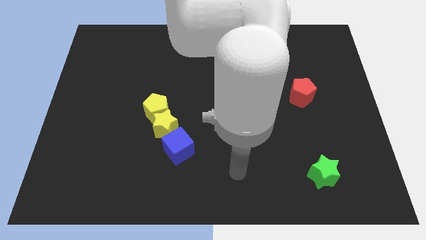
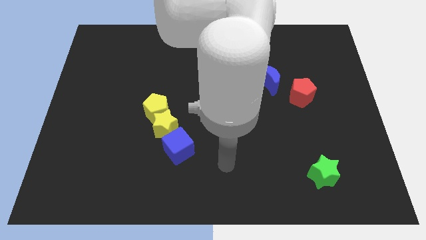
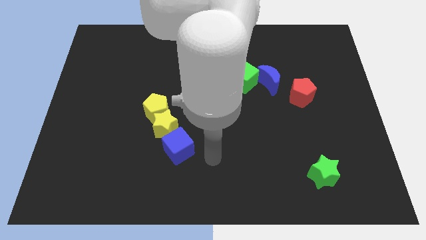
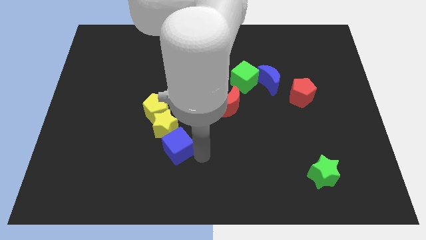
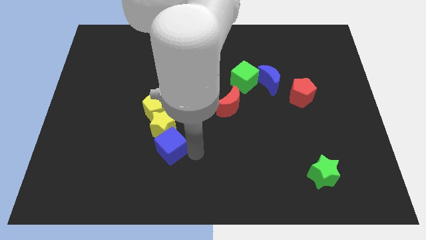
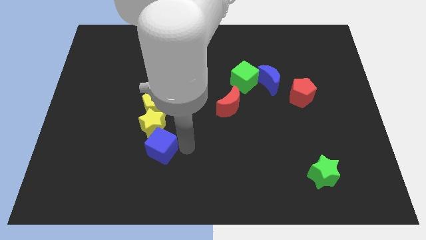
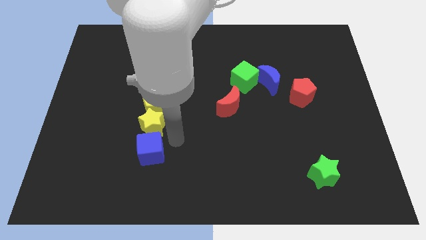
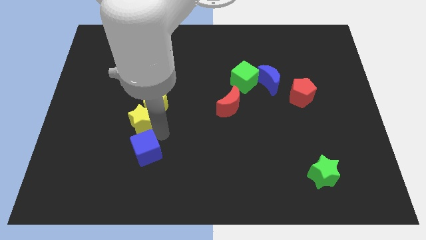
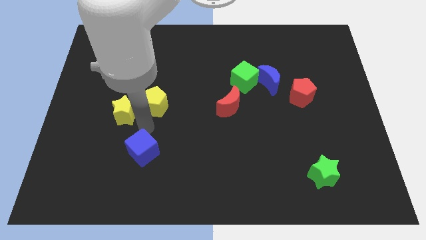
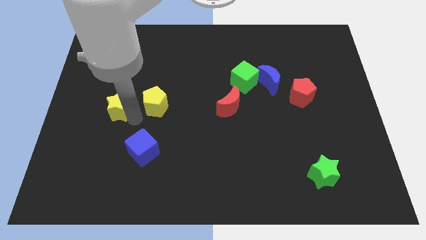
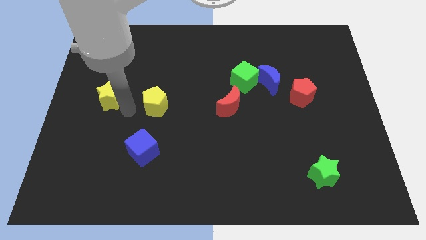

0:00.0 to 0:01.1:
pull the yellow pentagon apart from the yellow star

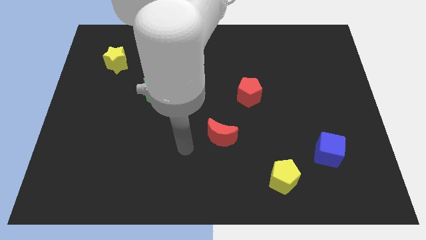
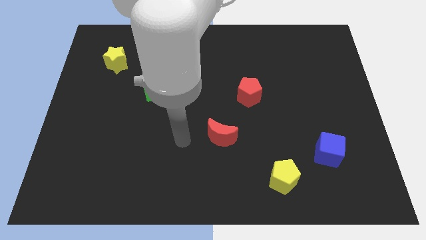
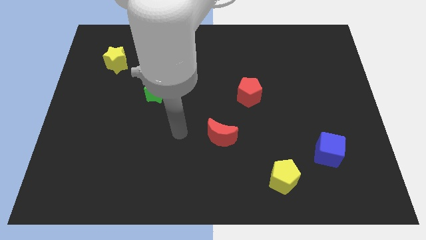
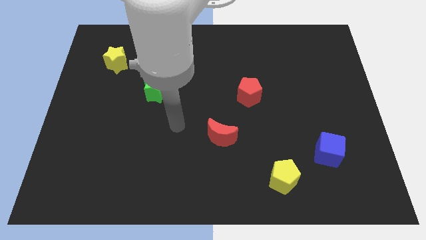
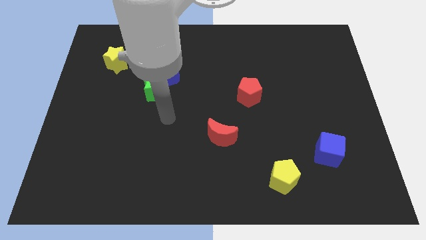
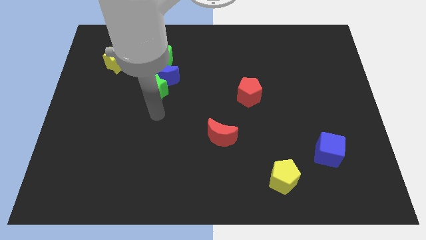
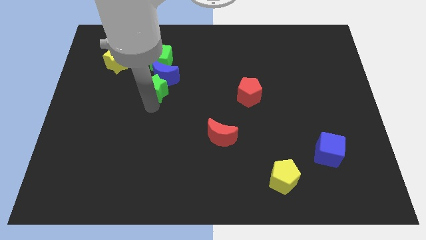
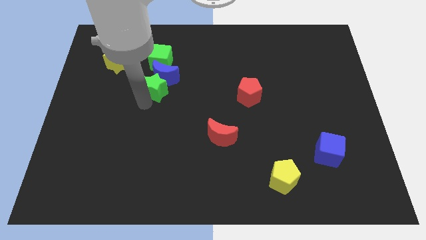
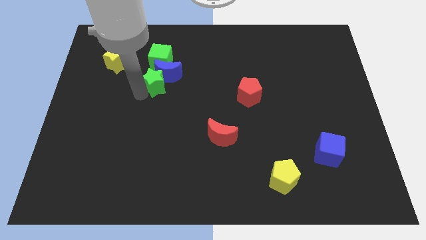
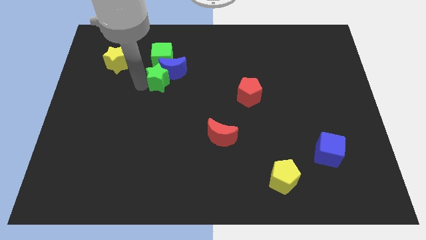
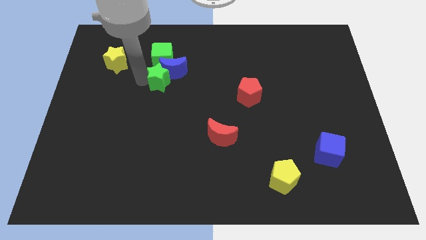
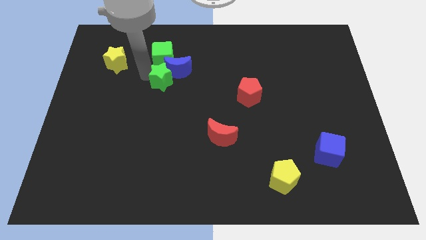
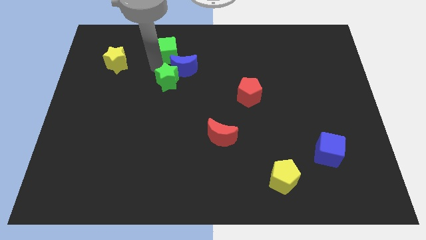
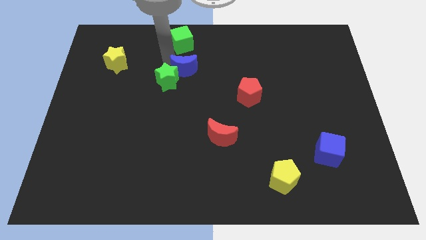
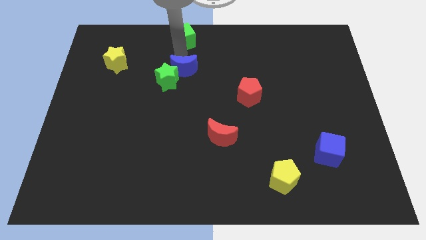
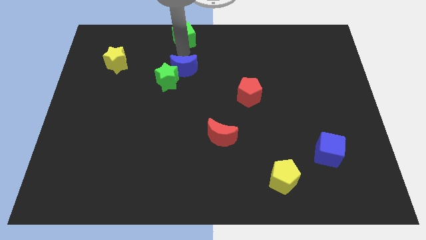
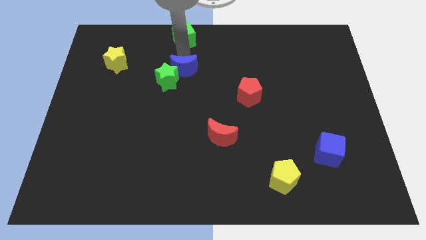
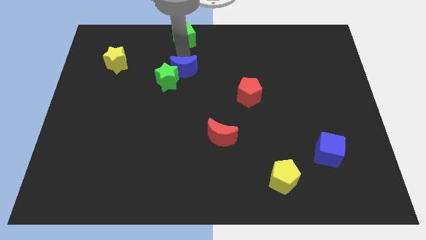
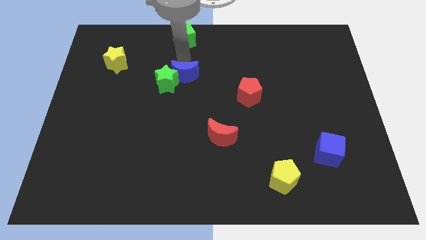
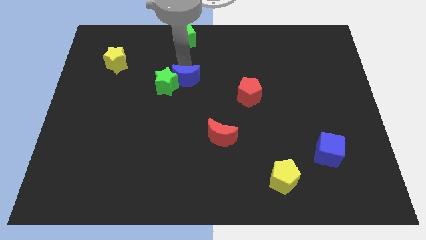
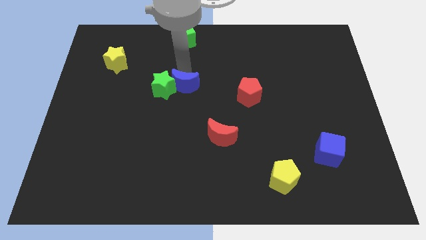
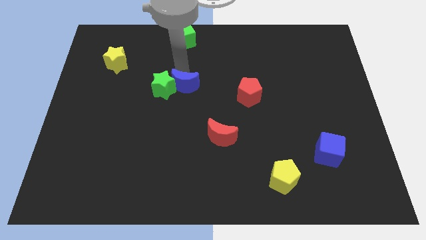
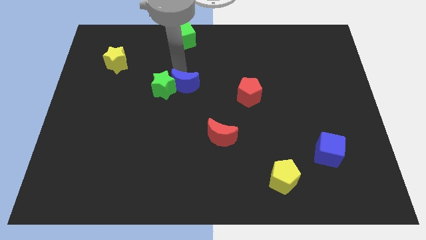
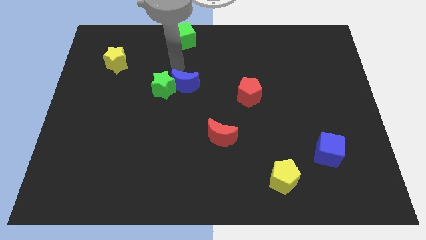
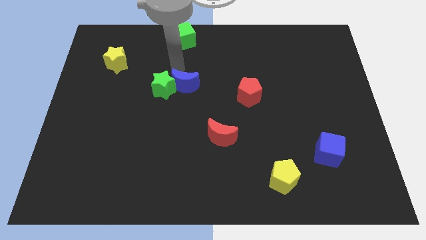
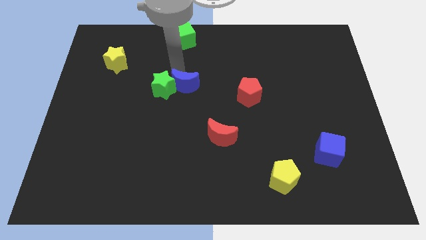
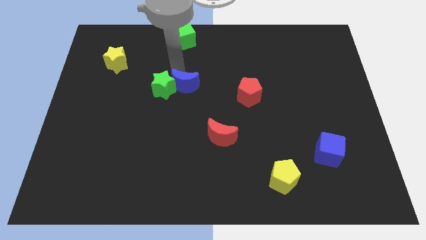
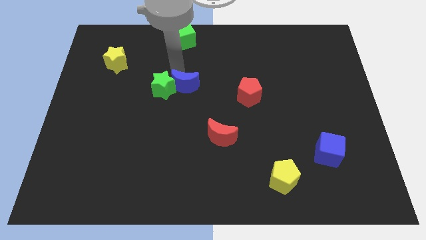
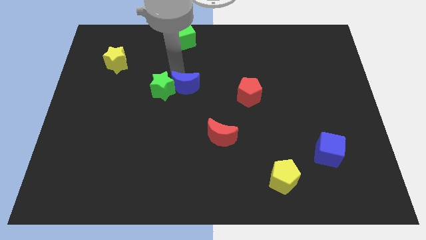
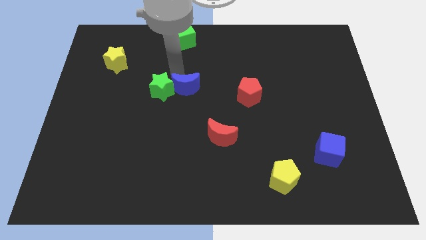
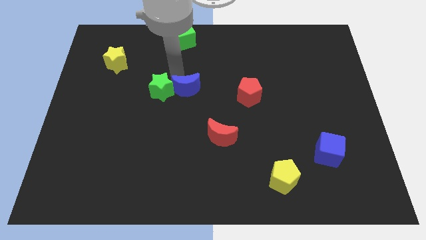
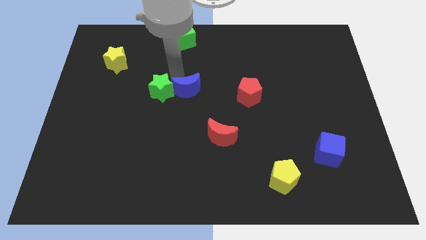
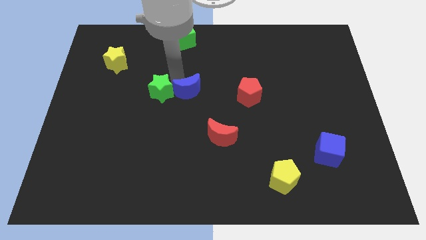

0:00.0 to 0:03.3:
pull the blue moon apart from the green star and green cube

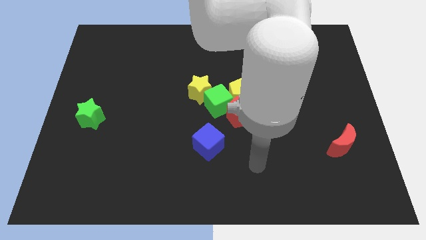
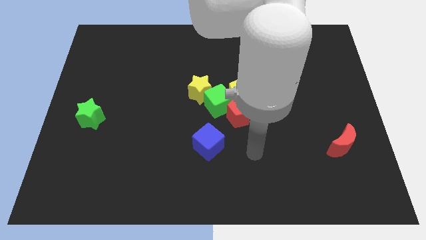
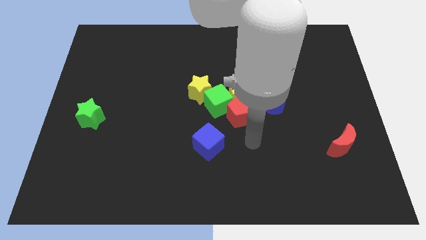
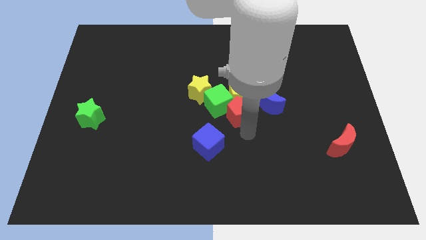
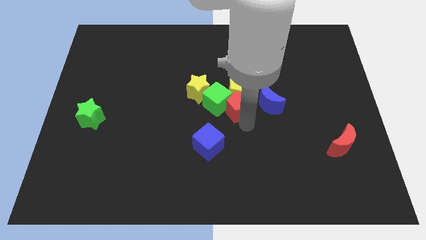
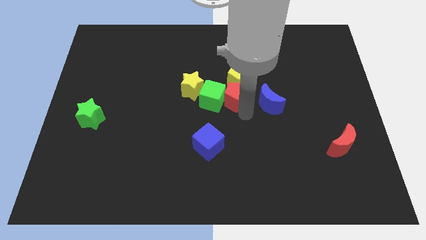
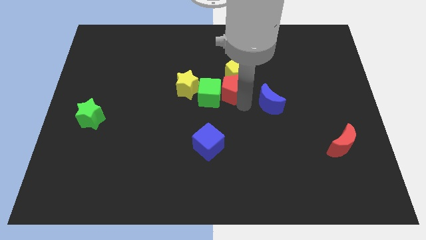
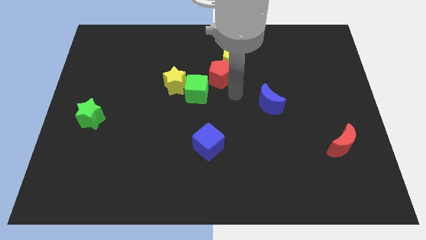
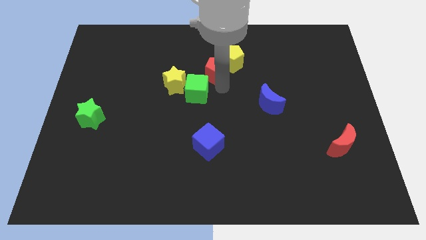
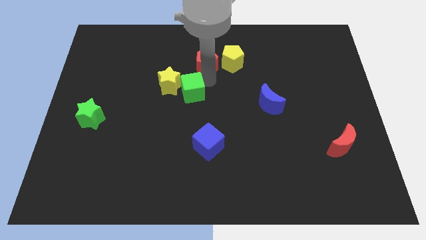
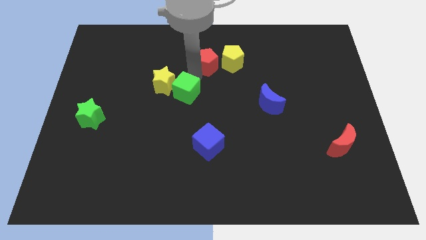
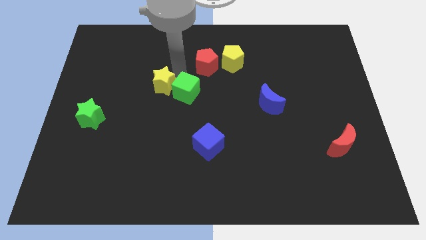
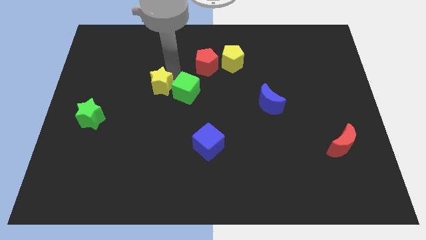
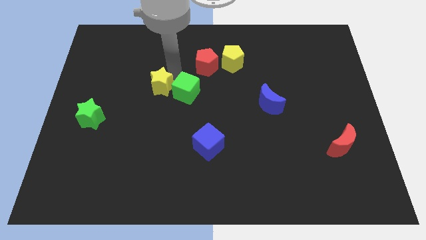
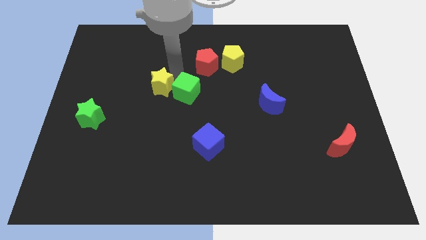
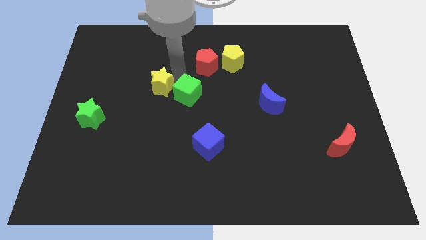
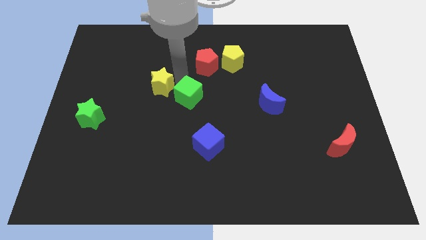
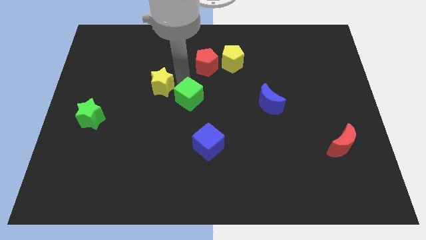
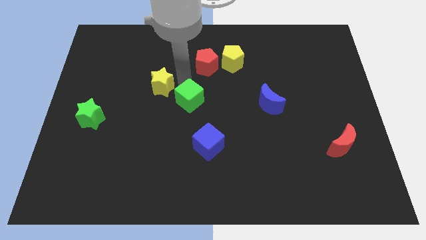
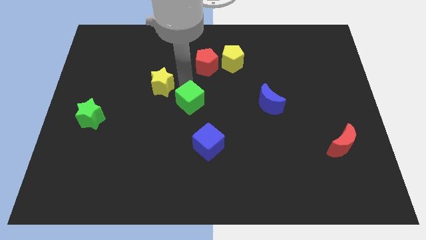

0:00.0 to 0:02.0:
separate the green cube from the yellow star, red pentagon, and yellow pentagon

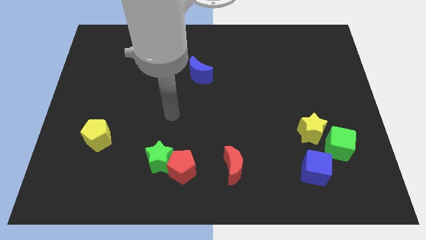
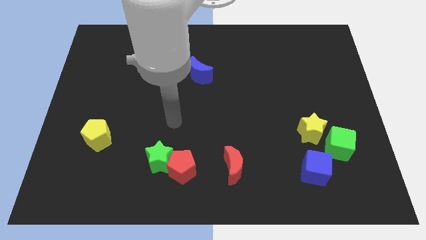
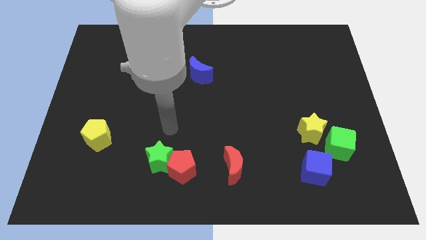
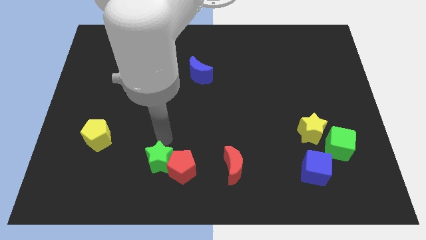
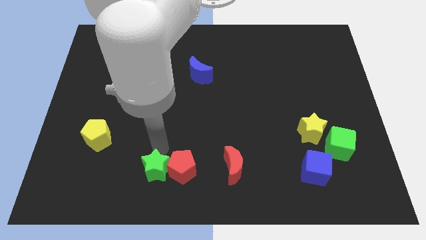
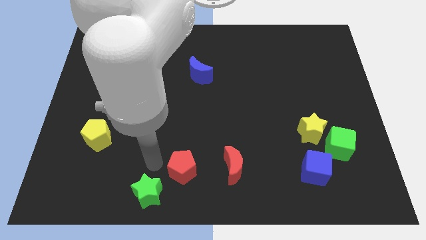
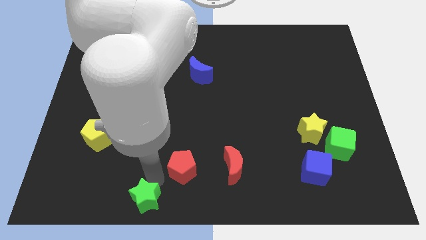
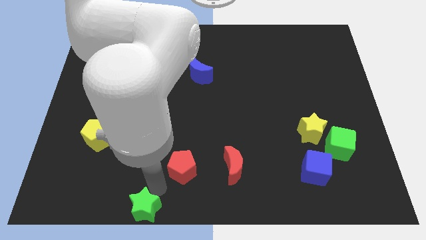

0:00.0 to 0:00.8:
move the red pentagon away from the green star

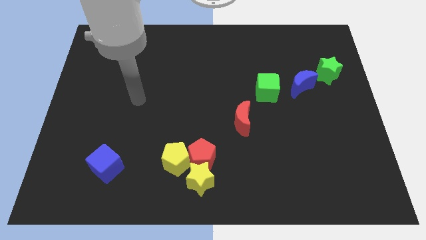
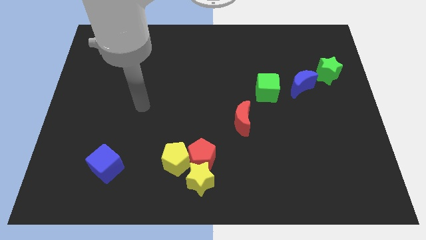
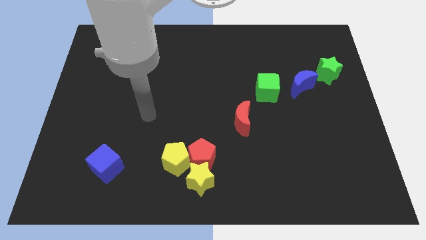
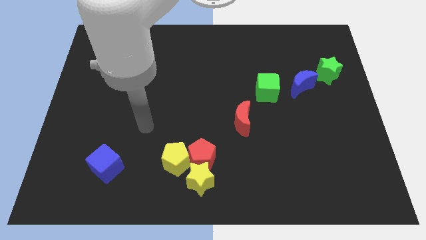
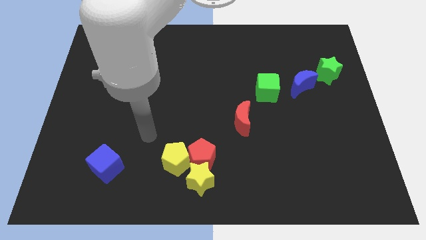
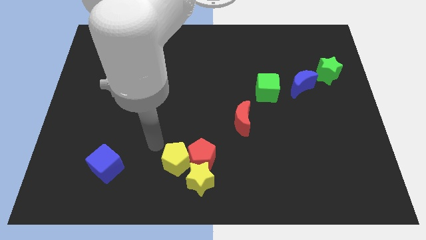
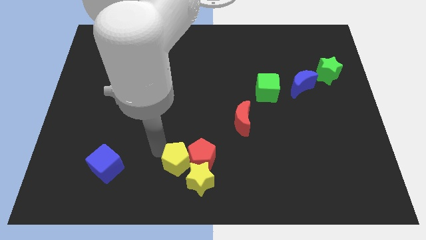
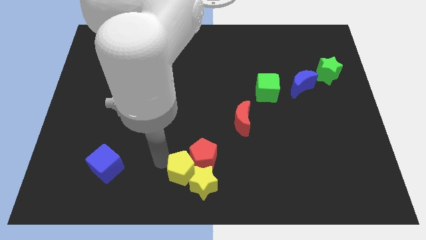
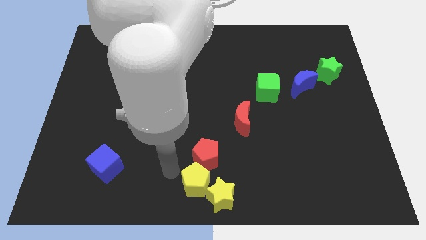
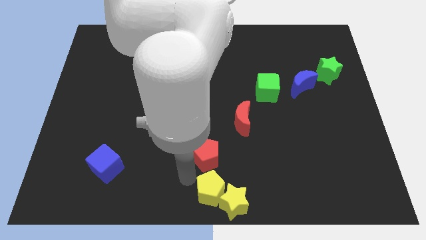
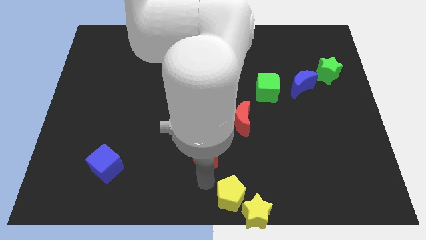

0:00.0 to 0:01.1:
pull the red pentagon apart from the yellow star and yellow pentagon

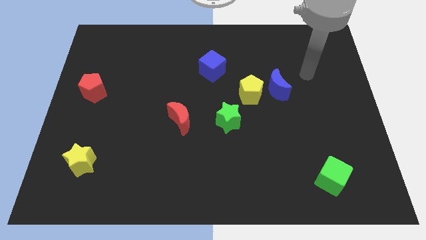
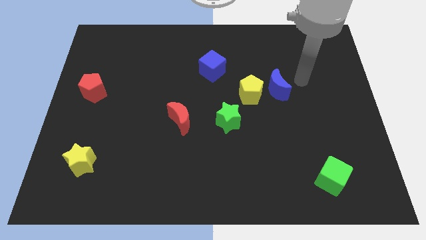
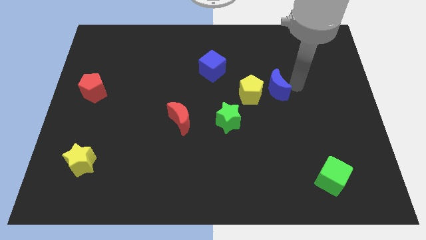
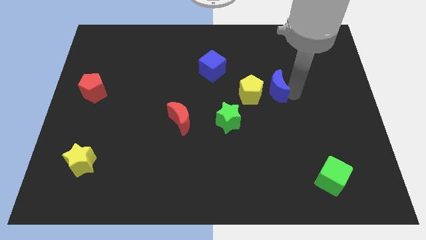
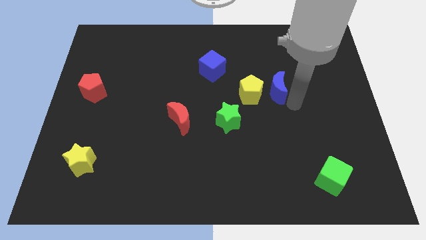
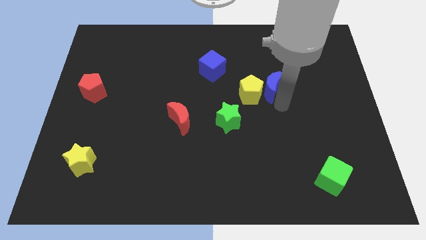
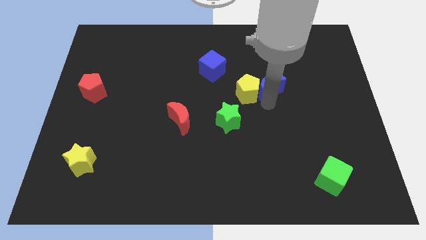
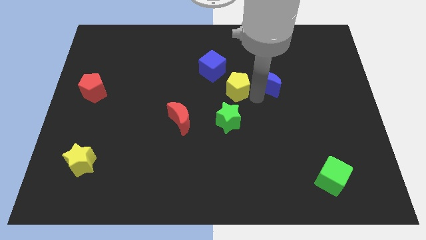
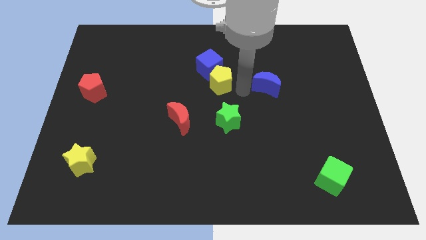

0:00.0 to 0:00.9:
separate the blue moon from the yellow pentagon

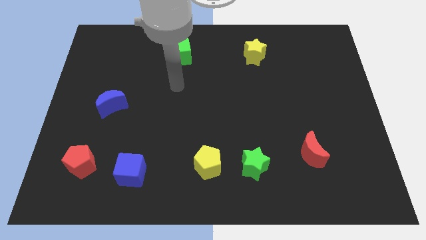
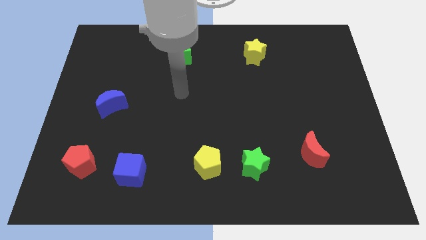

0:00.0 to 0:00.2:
move the green star away from the yellow pentagon
